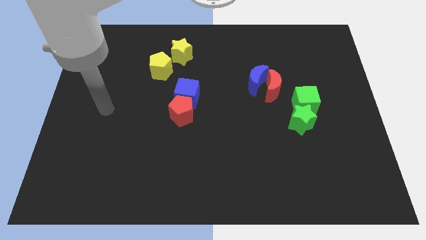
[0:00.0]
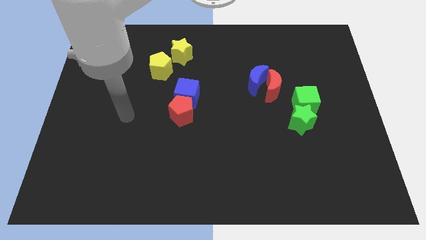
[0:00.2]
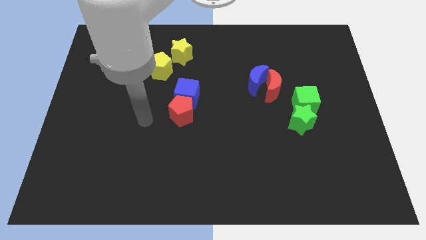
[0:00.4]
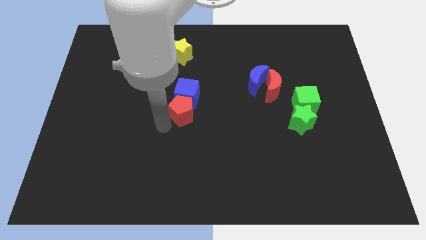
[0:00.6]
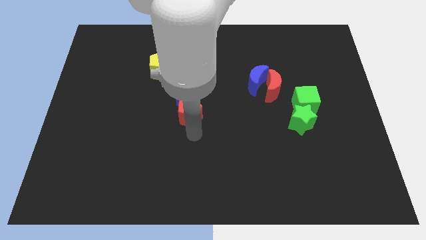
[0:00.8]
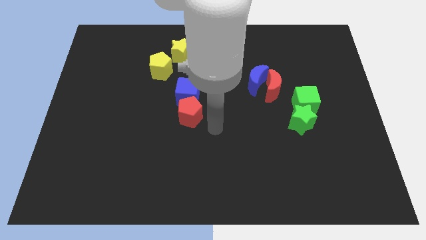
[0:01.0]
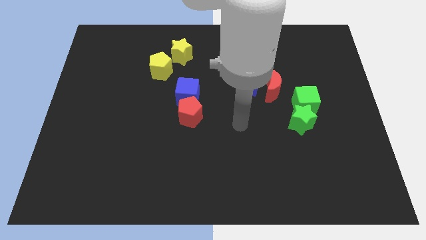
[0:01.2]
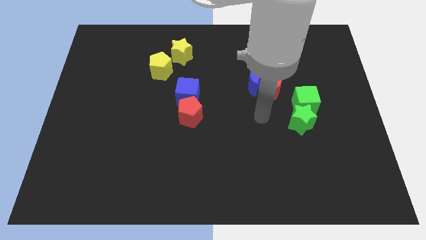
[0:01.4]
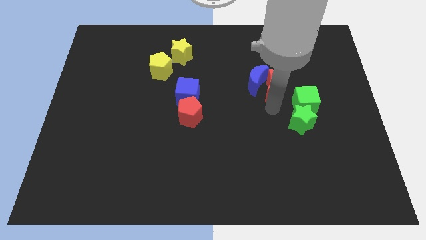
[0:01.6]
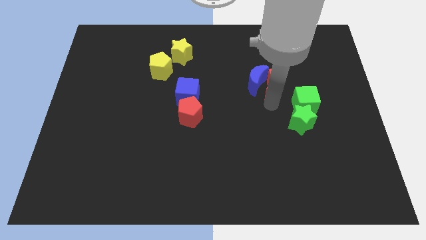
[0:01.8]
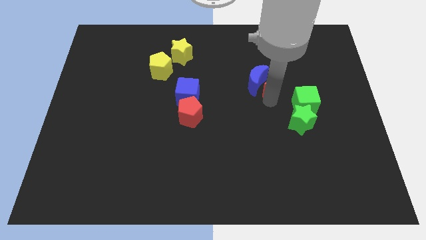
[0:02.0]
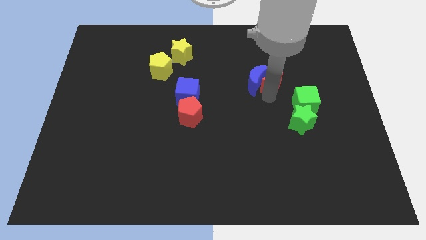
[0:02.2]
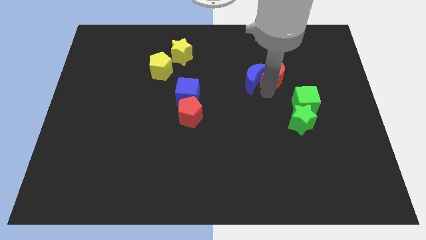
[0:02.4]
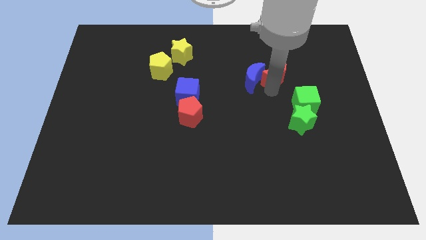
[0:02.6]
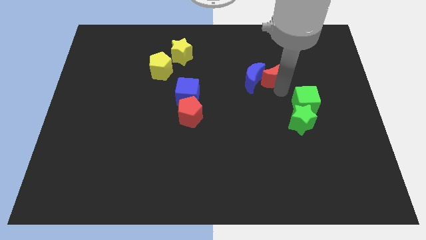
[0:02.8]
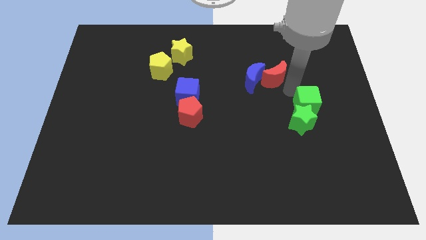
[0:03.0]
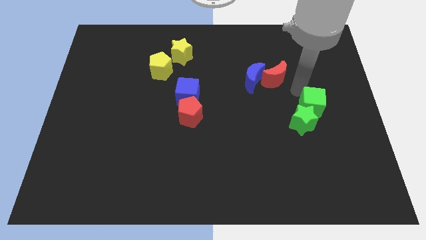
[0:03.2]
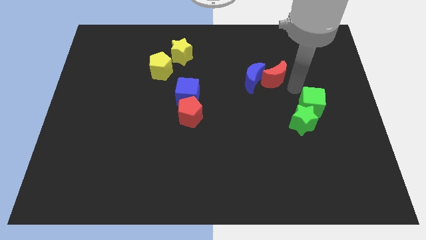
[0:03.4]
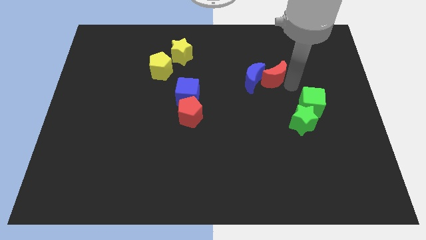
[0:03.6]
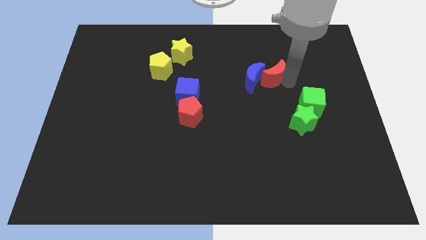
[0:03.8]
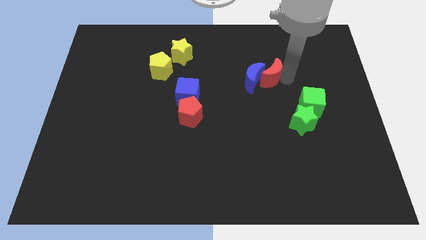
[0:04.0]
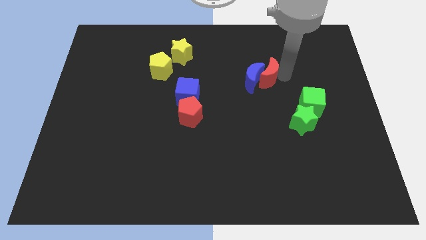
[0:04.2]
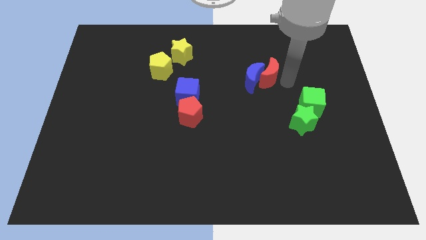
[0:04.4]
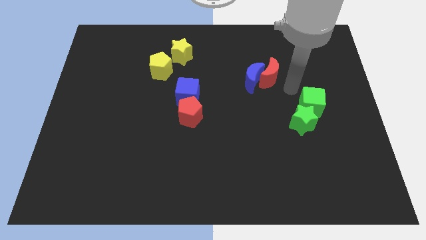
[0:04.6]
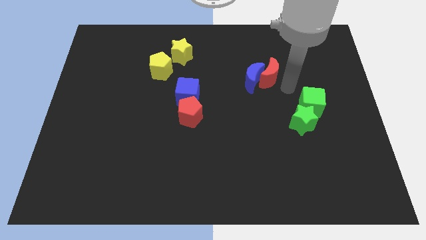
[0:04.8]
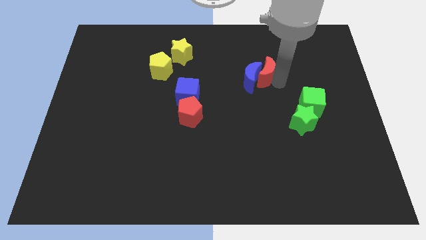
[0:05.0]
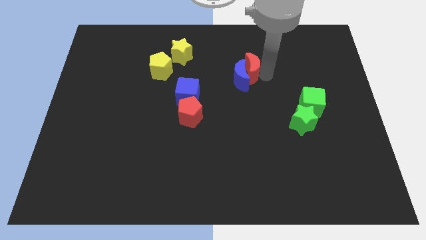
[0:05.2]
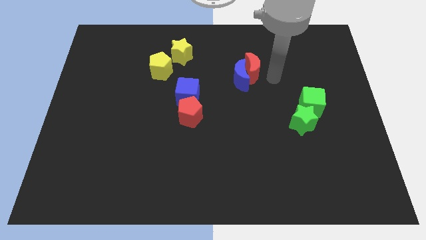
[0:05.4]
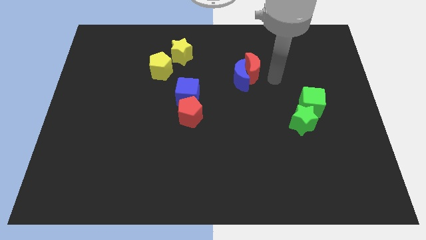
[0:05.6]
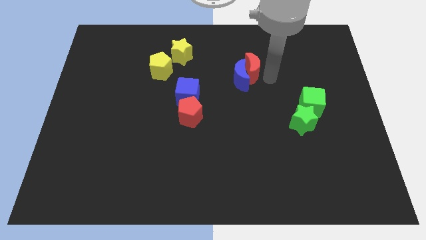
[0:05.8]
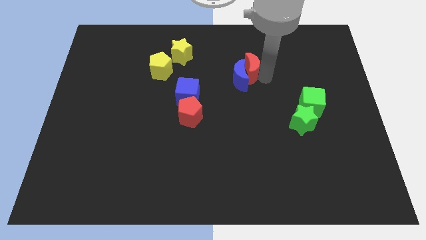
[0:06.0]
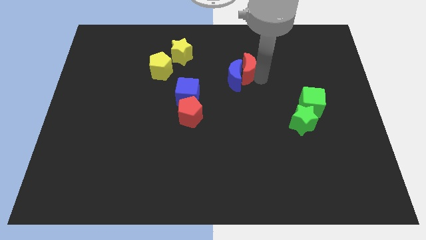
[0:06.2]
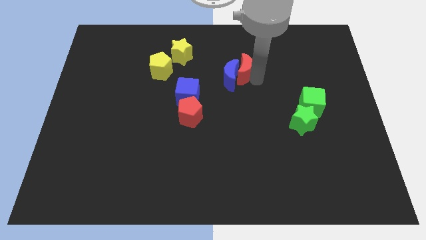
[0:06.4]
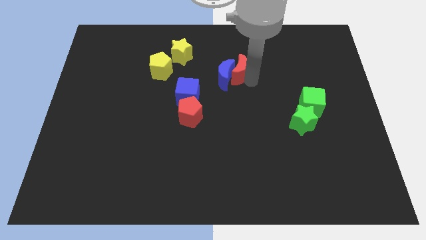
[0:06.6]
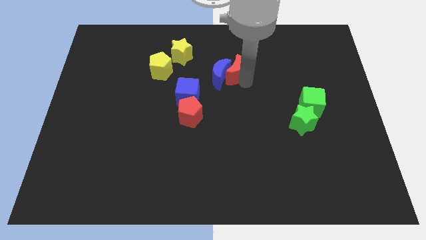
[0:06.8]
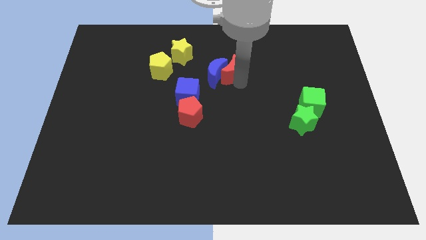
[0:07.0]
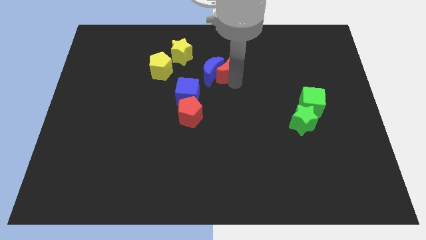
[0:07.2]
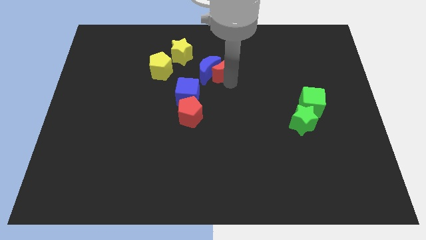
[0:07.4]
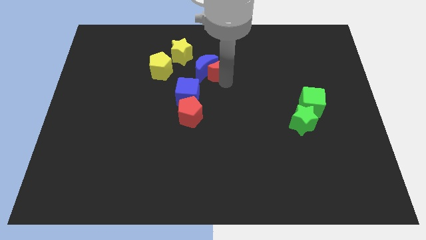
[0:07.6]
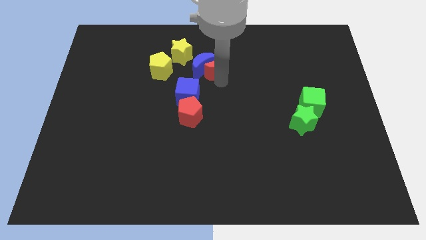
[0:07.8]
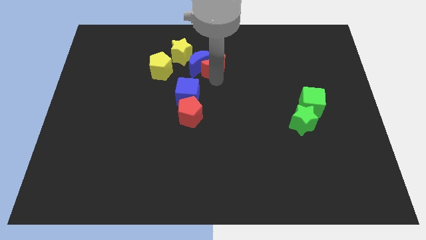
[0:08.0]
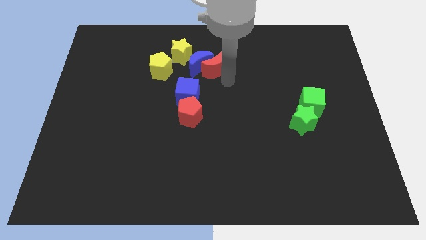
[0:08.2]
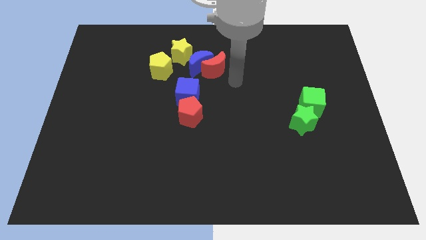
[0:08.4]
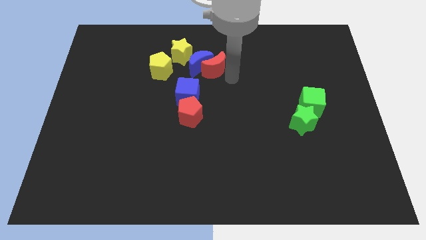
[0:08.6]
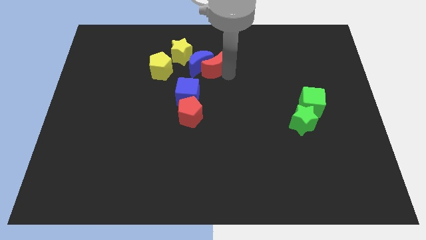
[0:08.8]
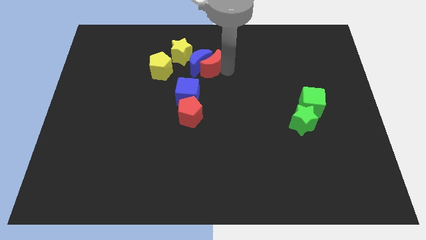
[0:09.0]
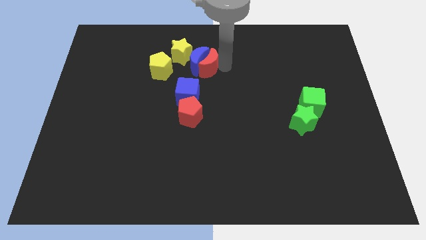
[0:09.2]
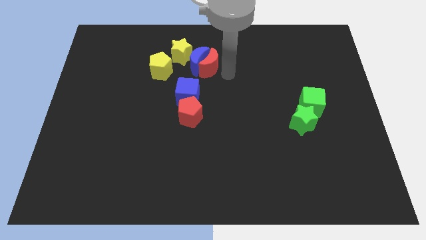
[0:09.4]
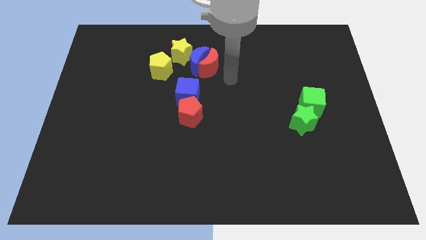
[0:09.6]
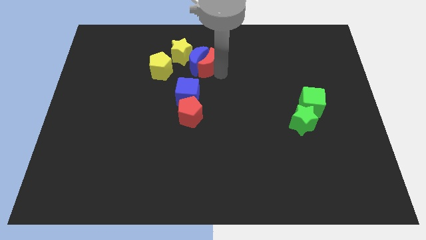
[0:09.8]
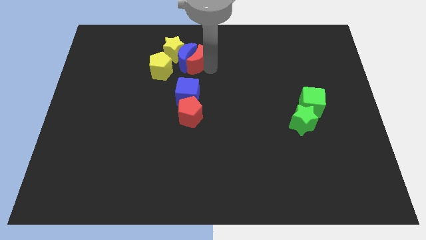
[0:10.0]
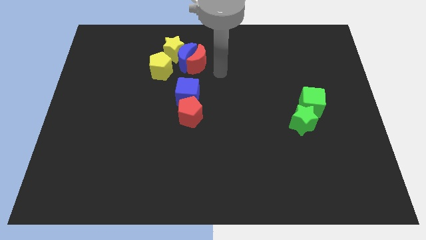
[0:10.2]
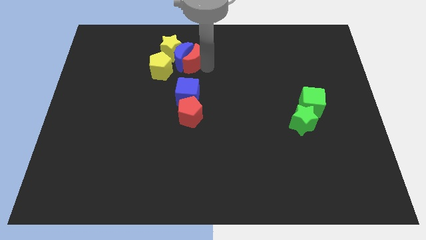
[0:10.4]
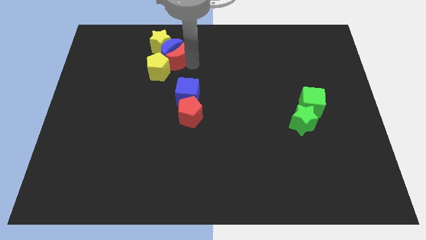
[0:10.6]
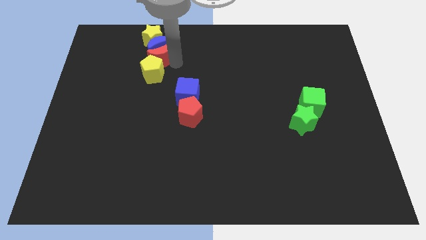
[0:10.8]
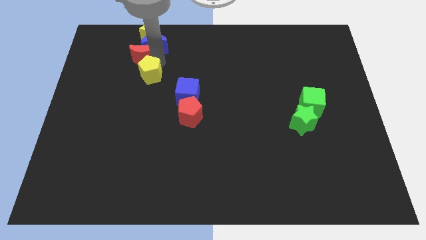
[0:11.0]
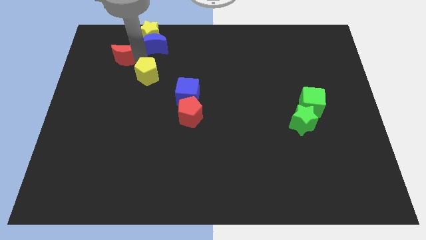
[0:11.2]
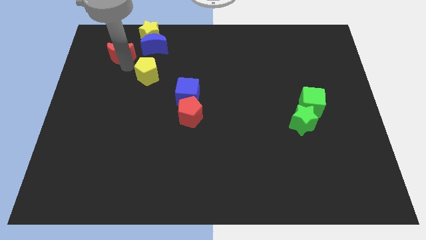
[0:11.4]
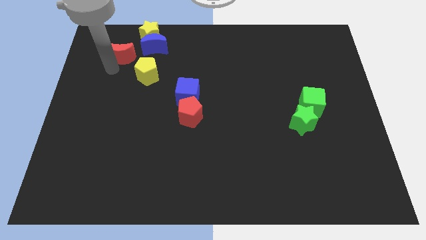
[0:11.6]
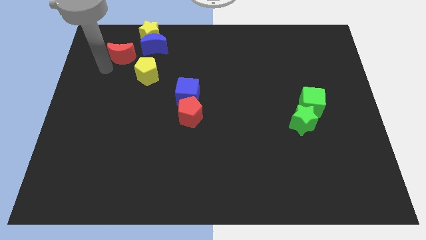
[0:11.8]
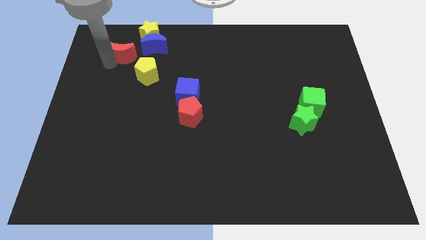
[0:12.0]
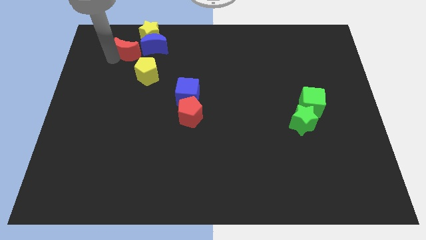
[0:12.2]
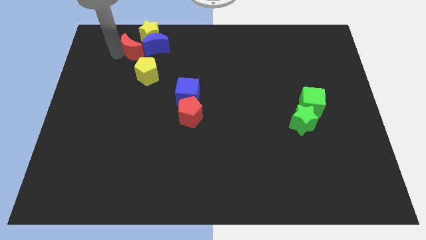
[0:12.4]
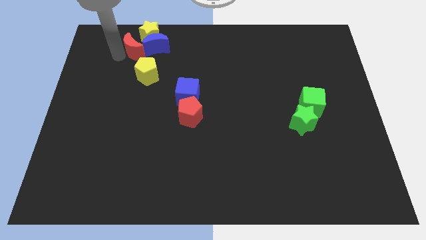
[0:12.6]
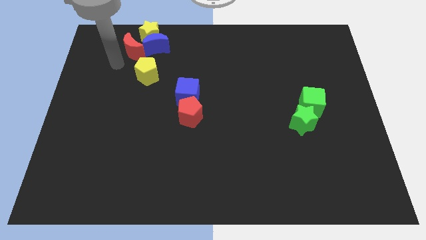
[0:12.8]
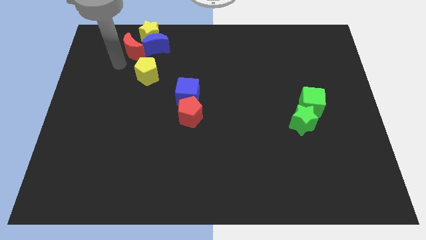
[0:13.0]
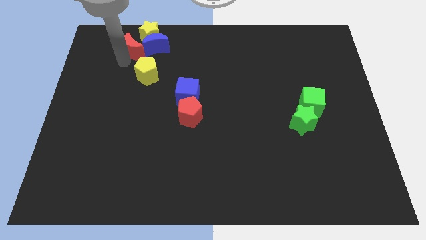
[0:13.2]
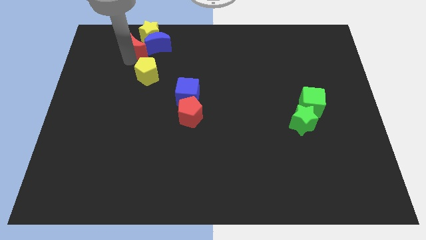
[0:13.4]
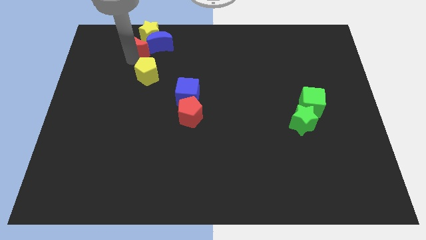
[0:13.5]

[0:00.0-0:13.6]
push the red moon to the yellow star
